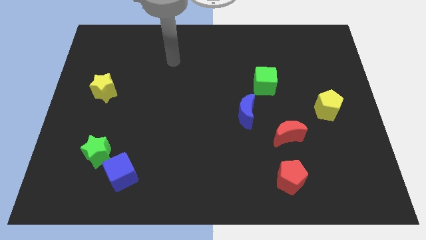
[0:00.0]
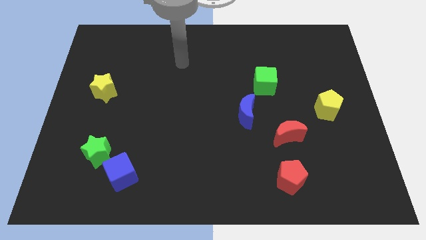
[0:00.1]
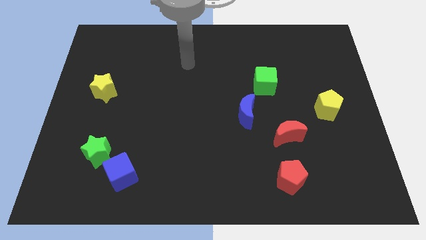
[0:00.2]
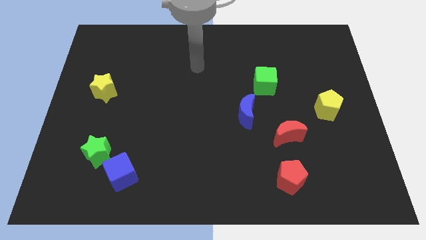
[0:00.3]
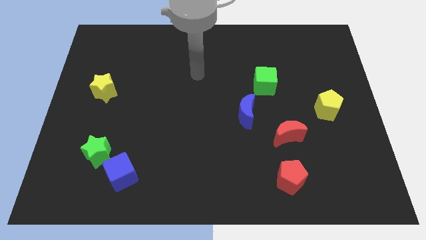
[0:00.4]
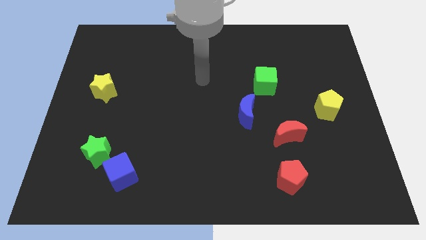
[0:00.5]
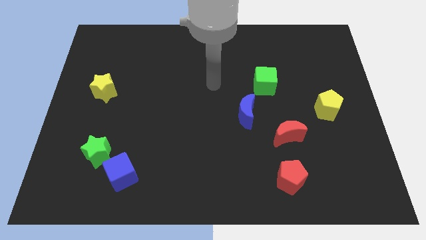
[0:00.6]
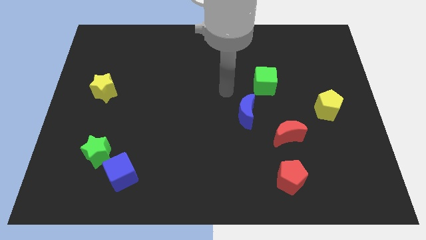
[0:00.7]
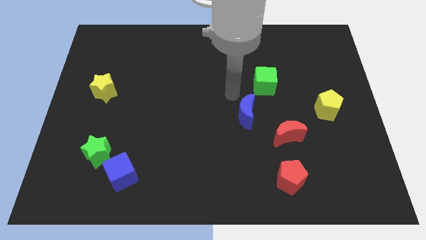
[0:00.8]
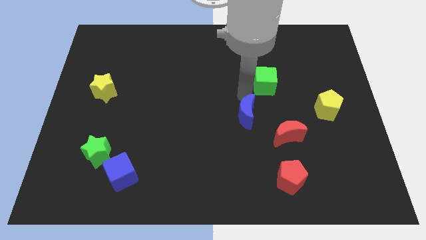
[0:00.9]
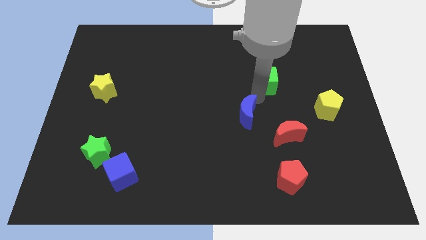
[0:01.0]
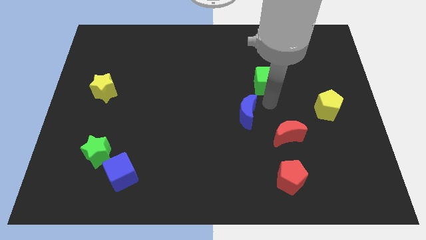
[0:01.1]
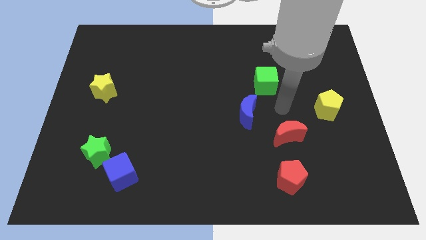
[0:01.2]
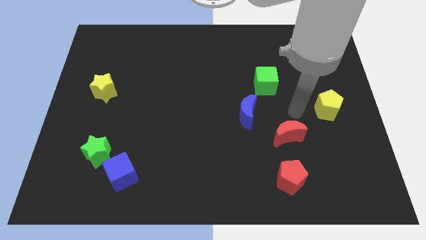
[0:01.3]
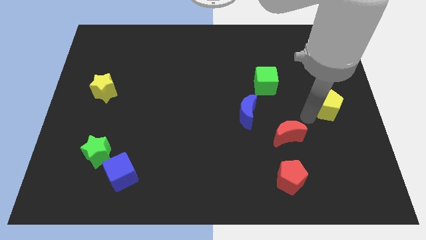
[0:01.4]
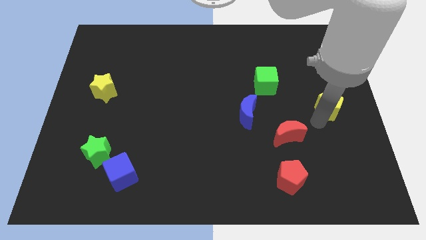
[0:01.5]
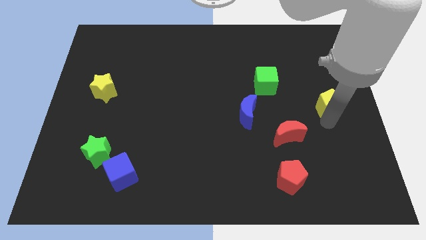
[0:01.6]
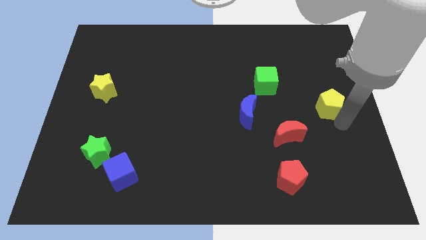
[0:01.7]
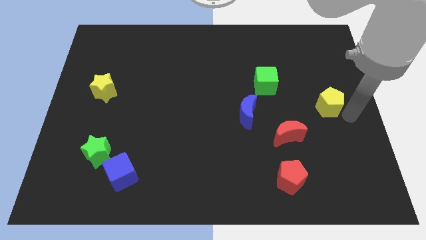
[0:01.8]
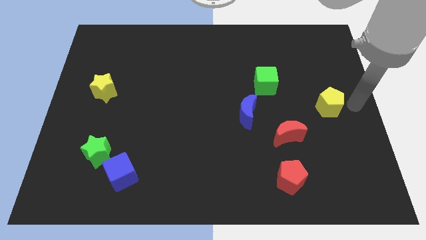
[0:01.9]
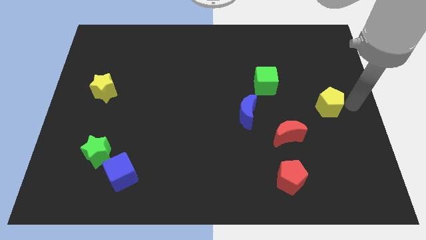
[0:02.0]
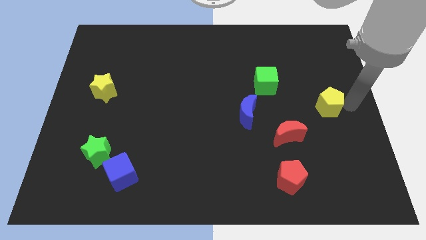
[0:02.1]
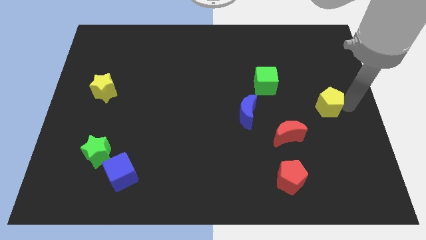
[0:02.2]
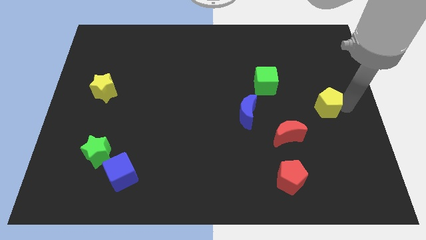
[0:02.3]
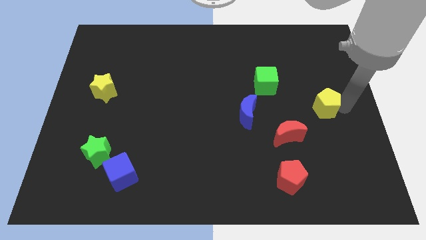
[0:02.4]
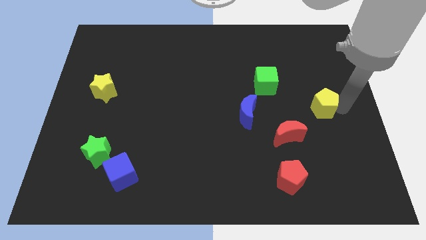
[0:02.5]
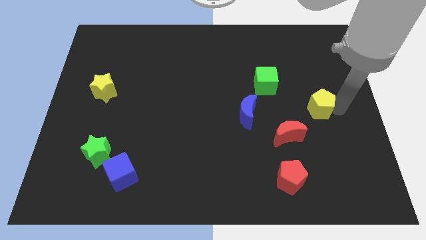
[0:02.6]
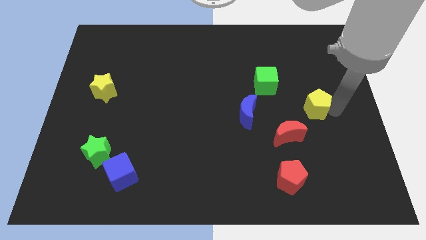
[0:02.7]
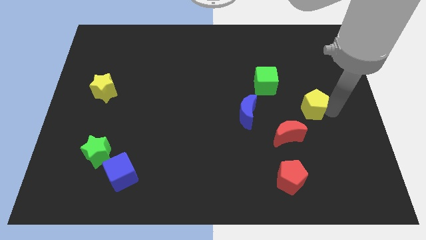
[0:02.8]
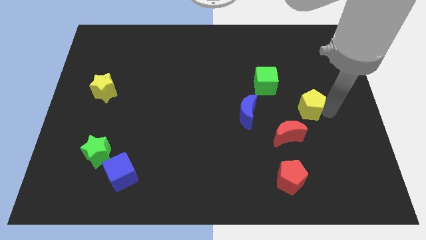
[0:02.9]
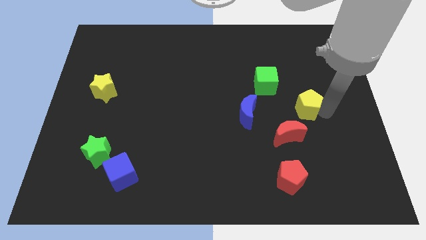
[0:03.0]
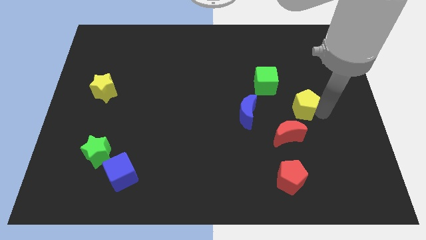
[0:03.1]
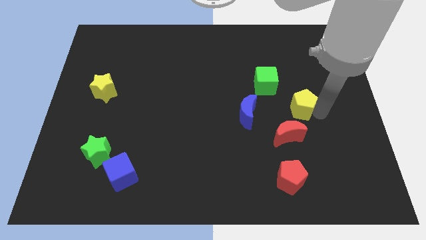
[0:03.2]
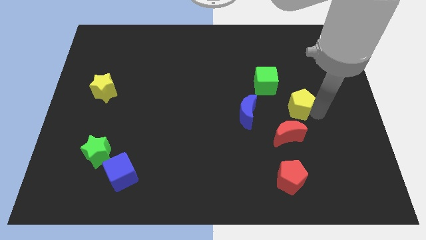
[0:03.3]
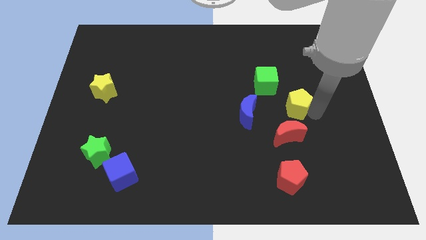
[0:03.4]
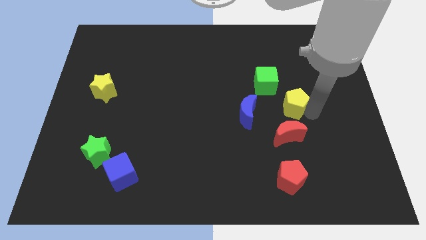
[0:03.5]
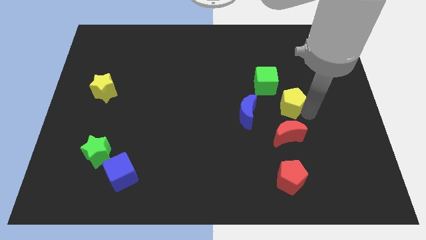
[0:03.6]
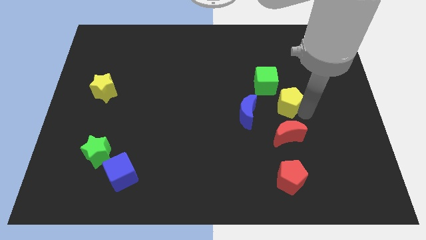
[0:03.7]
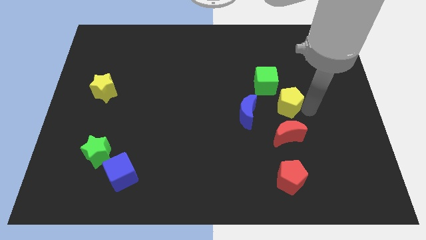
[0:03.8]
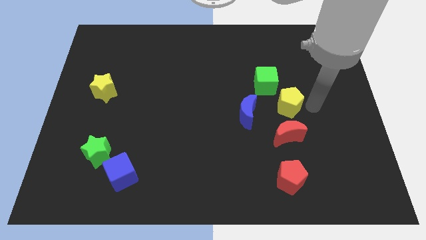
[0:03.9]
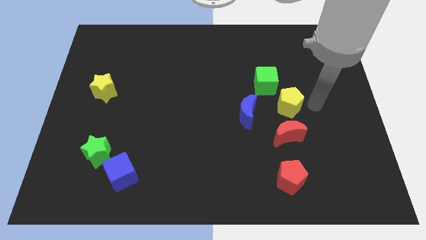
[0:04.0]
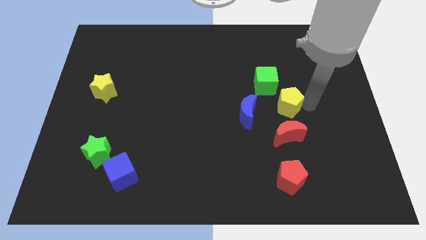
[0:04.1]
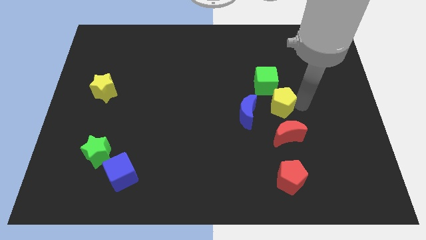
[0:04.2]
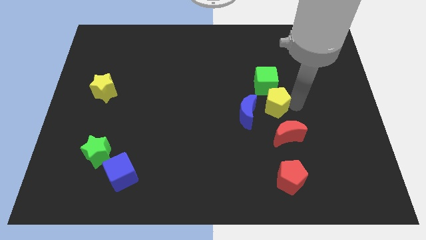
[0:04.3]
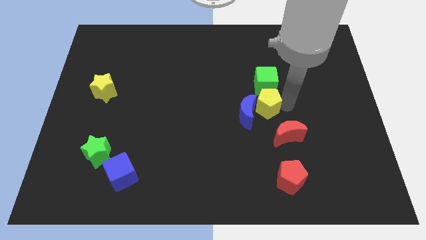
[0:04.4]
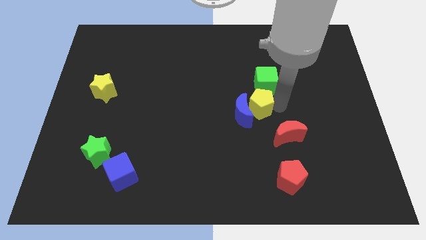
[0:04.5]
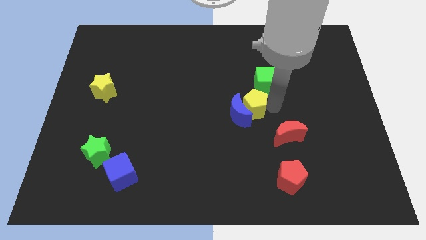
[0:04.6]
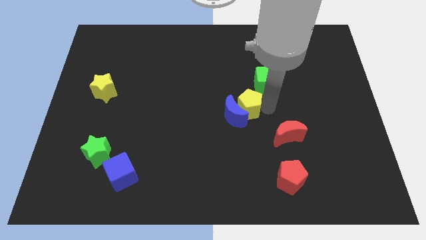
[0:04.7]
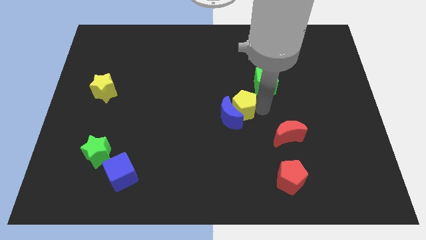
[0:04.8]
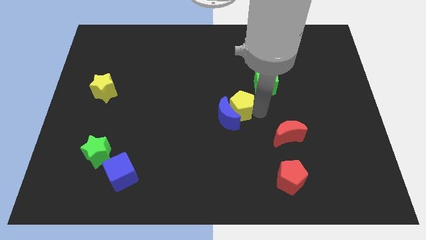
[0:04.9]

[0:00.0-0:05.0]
slide the yellow pentagon left

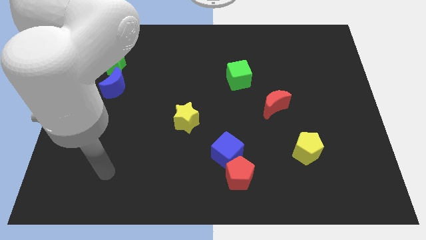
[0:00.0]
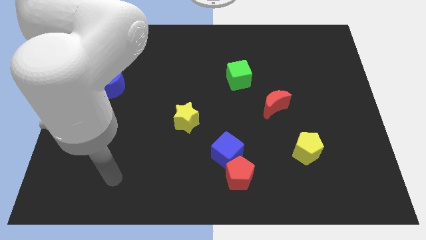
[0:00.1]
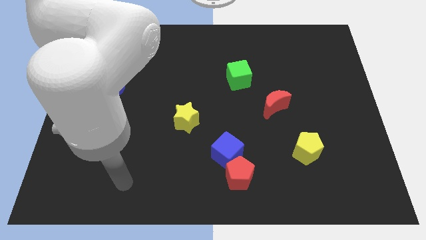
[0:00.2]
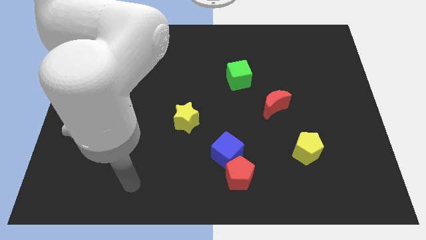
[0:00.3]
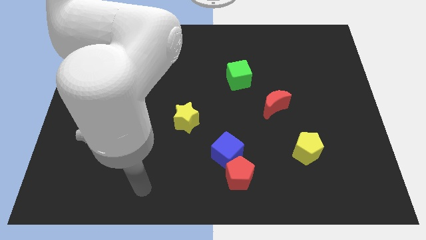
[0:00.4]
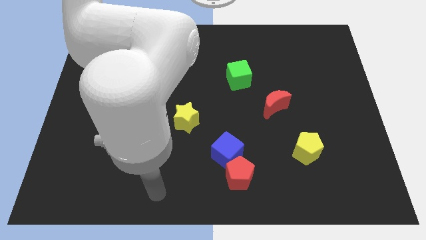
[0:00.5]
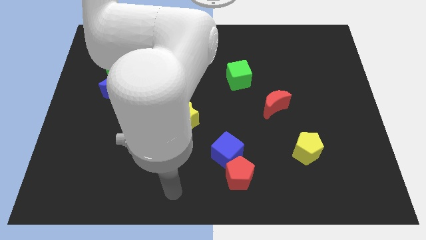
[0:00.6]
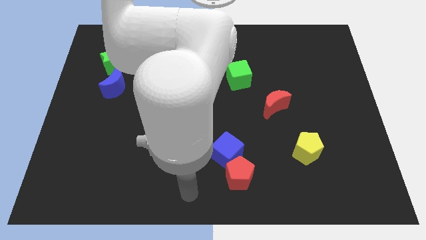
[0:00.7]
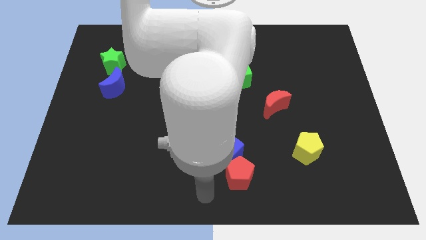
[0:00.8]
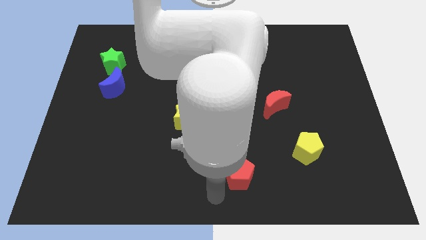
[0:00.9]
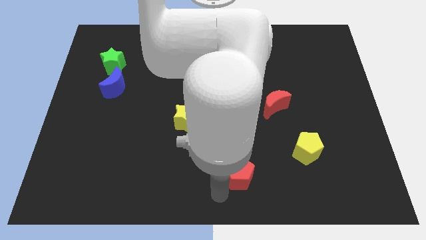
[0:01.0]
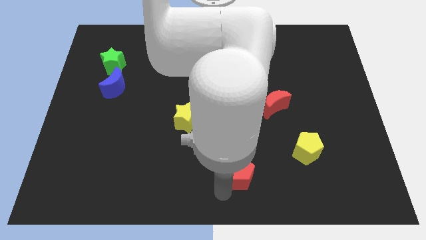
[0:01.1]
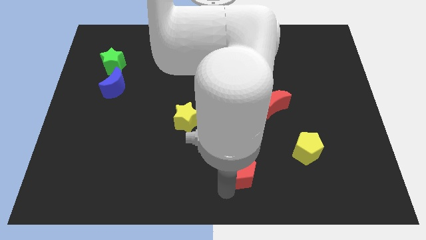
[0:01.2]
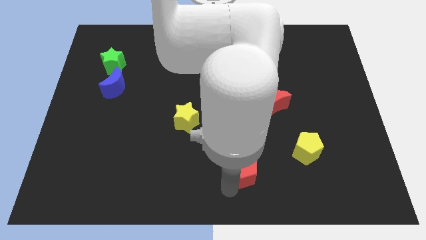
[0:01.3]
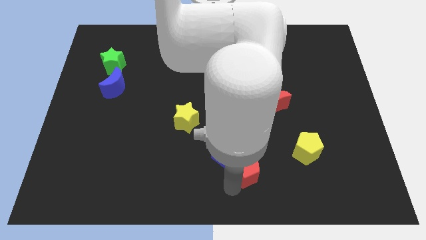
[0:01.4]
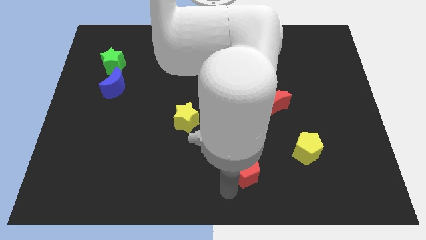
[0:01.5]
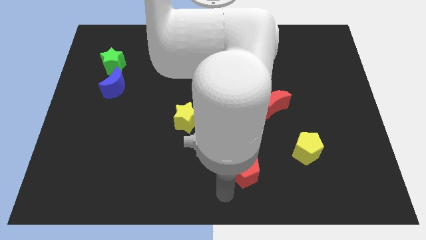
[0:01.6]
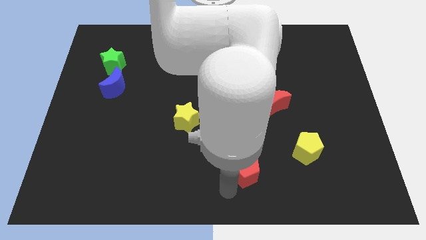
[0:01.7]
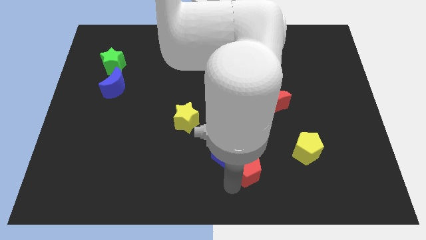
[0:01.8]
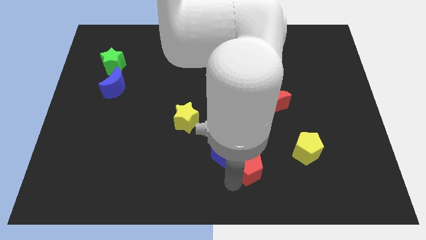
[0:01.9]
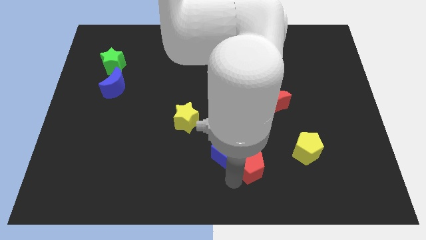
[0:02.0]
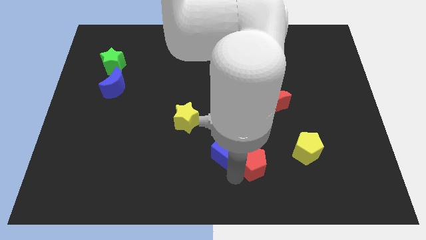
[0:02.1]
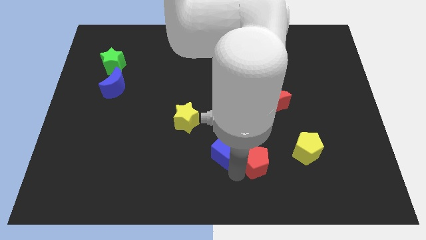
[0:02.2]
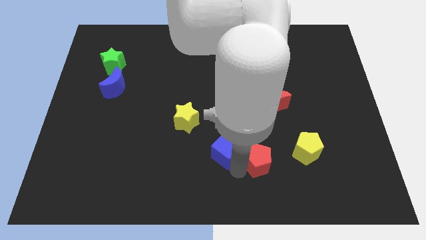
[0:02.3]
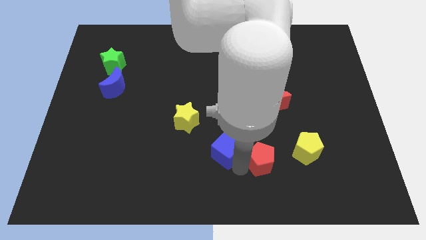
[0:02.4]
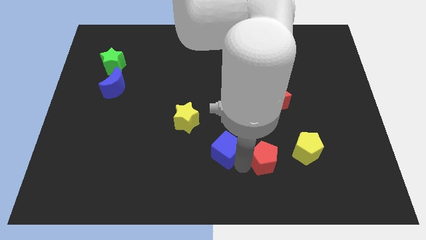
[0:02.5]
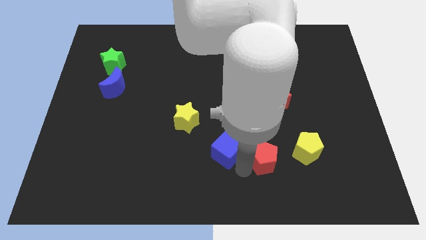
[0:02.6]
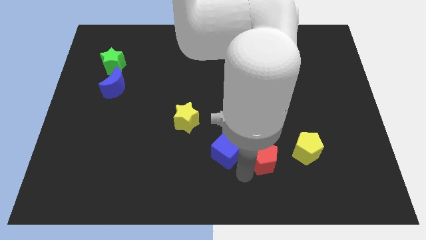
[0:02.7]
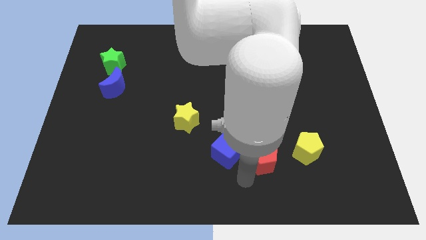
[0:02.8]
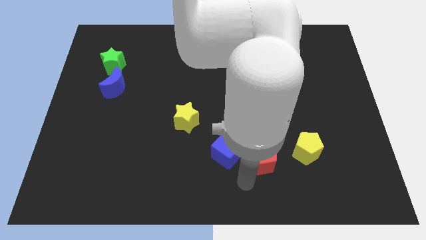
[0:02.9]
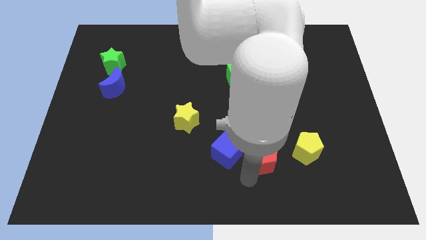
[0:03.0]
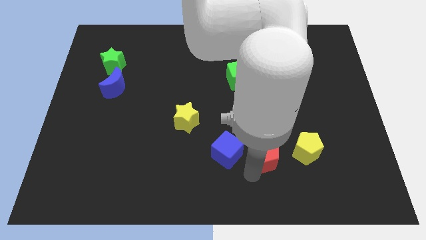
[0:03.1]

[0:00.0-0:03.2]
slightly move the red pentagon diagonally upwards and to the right
